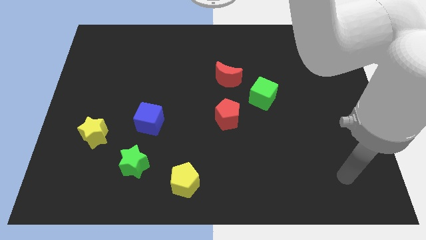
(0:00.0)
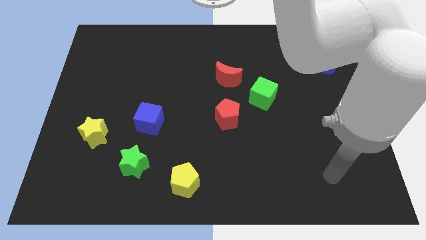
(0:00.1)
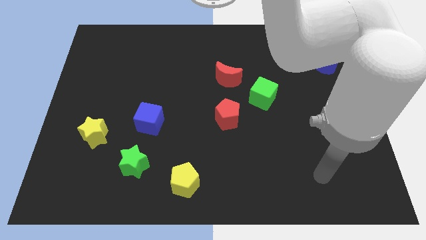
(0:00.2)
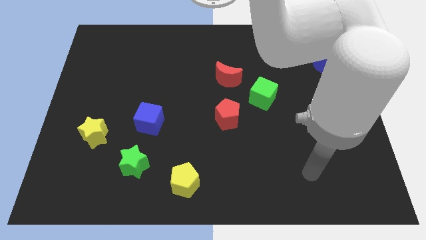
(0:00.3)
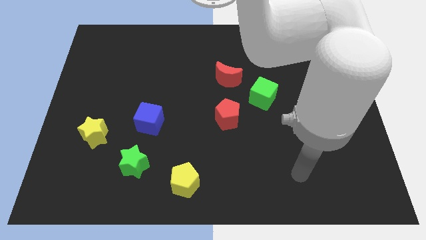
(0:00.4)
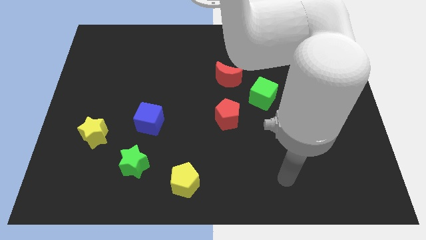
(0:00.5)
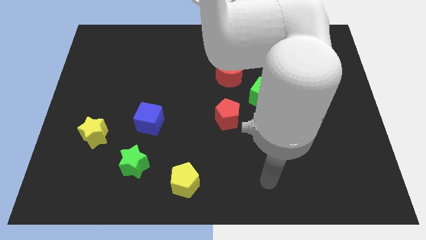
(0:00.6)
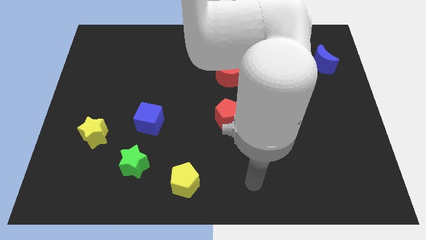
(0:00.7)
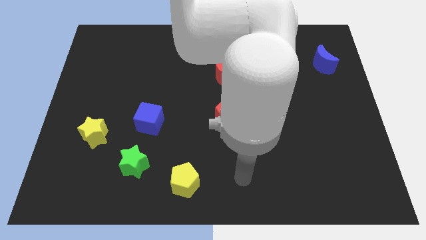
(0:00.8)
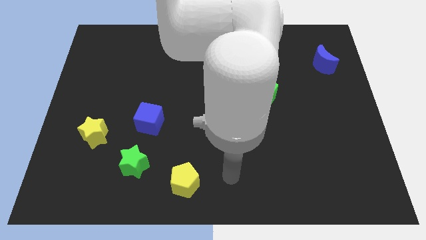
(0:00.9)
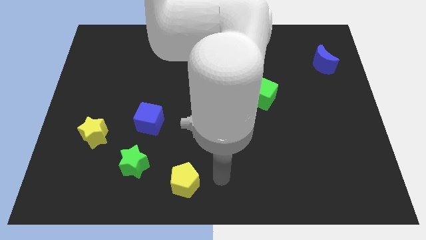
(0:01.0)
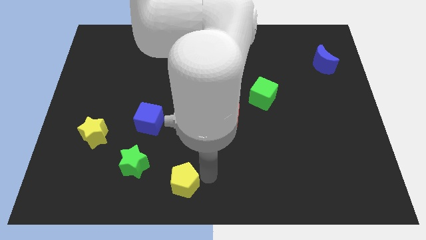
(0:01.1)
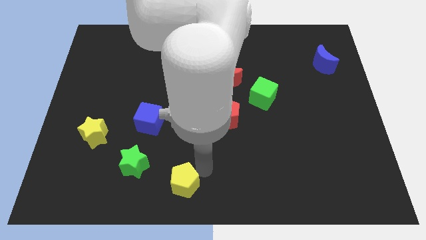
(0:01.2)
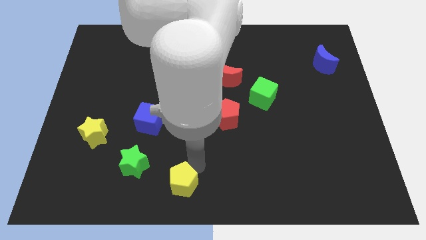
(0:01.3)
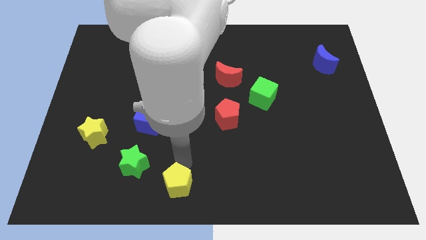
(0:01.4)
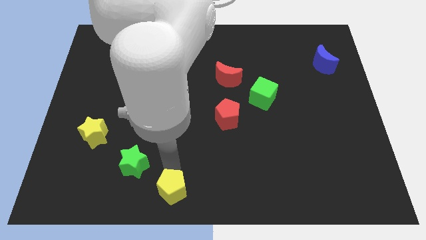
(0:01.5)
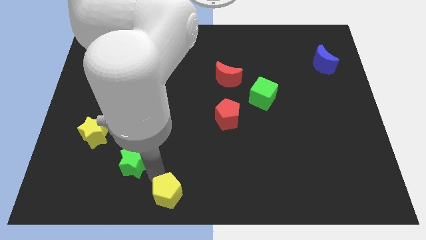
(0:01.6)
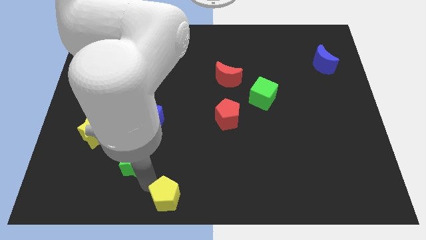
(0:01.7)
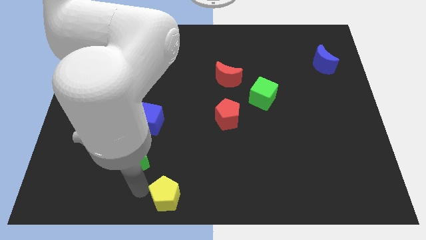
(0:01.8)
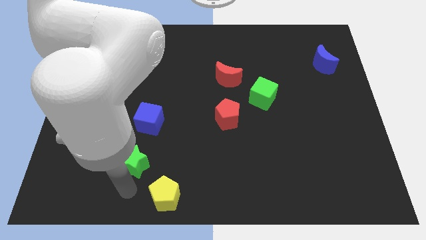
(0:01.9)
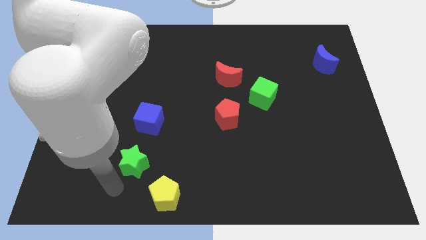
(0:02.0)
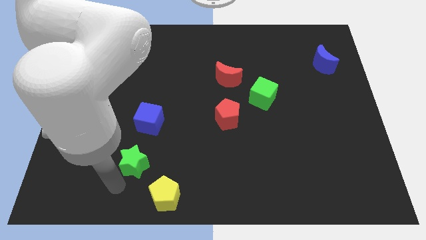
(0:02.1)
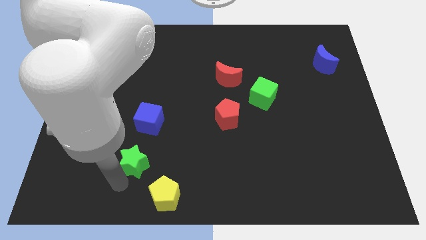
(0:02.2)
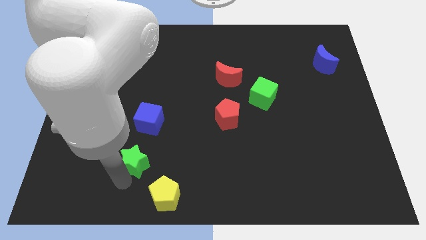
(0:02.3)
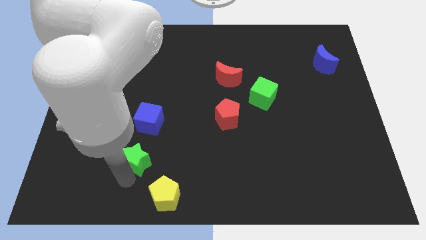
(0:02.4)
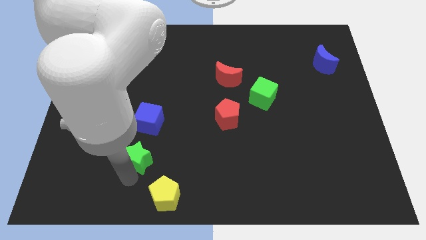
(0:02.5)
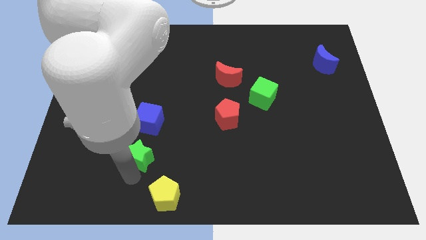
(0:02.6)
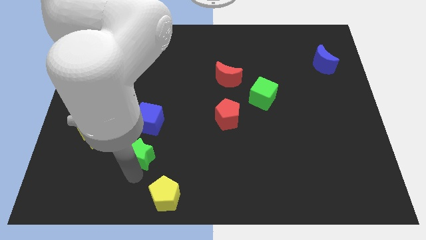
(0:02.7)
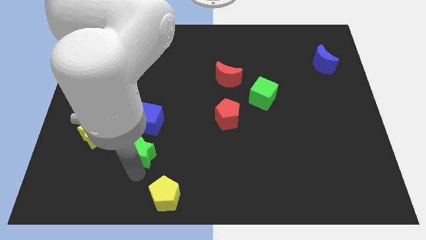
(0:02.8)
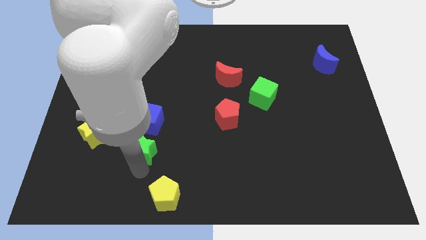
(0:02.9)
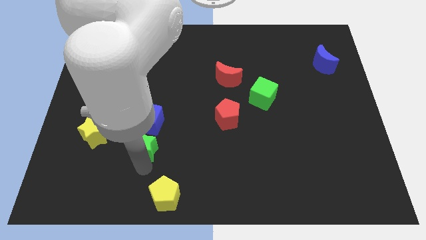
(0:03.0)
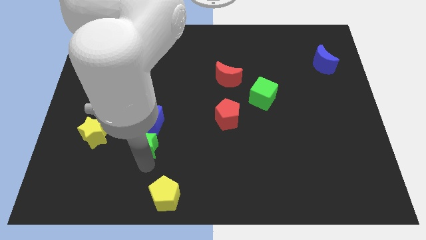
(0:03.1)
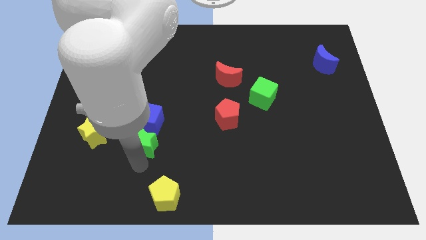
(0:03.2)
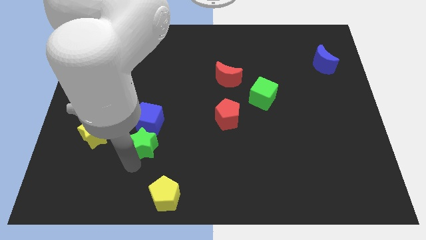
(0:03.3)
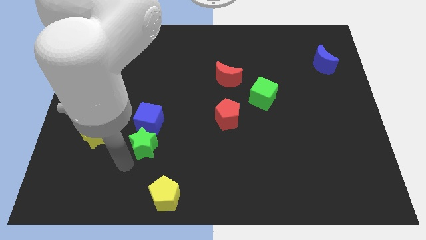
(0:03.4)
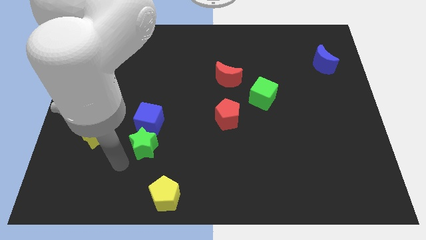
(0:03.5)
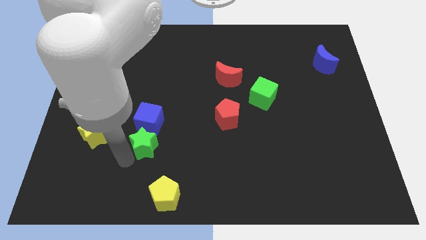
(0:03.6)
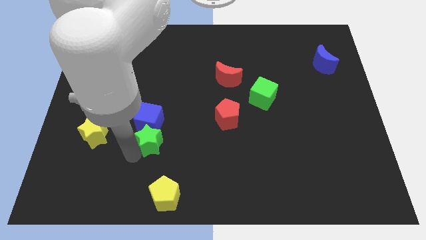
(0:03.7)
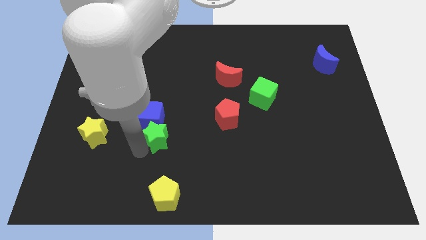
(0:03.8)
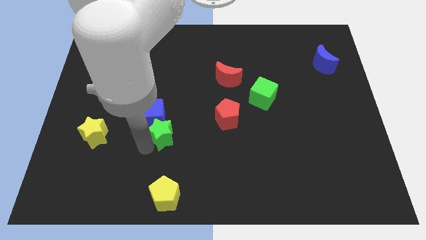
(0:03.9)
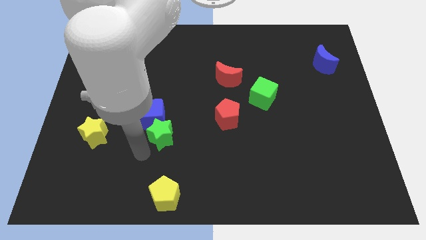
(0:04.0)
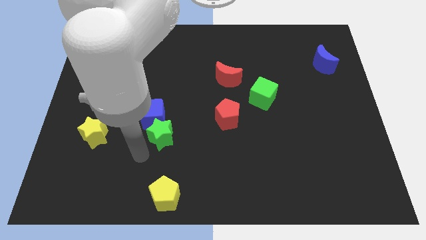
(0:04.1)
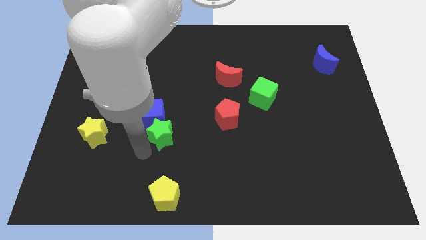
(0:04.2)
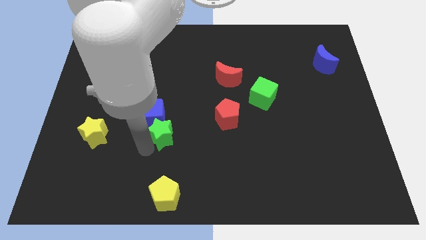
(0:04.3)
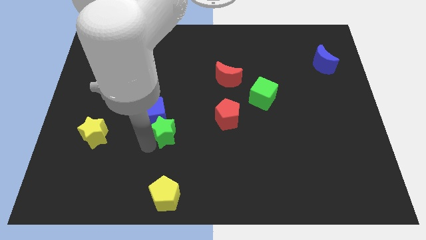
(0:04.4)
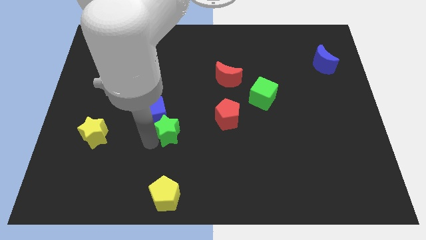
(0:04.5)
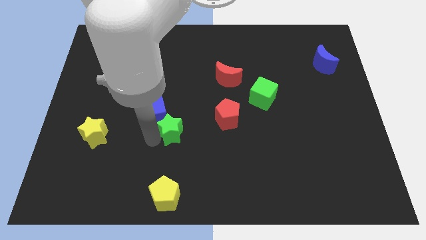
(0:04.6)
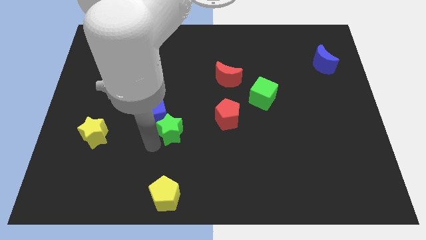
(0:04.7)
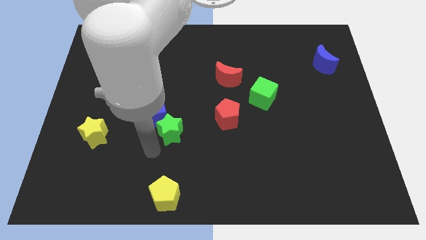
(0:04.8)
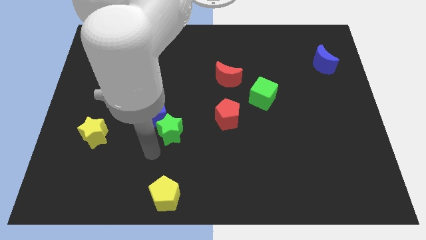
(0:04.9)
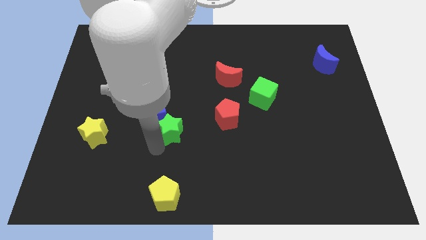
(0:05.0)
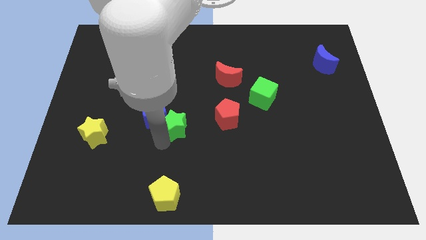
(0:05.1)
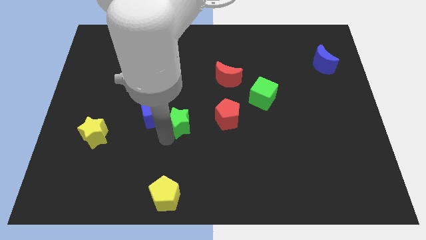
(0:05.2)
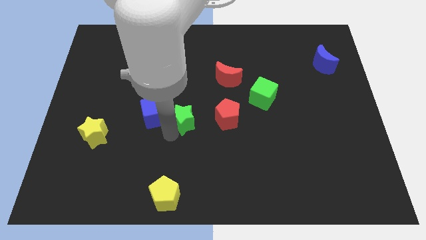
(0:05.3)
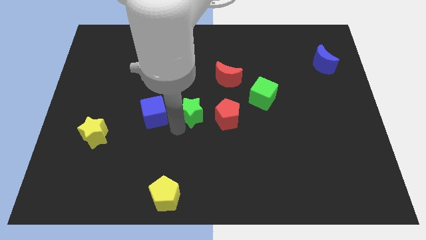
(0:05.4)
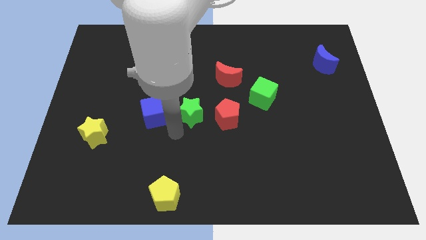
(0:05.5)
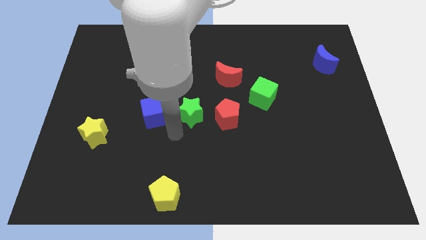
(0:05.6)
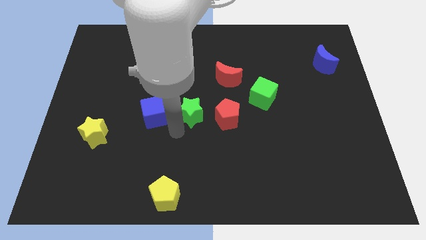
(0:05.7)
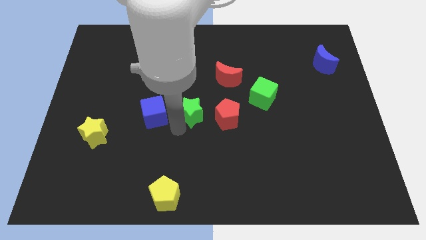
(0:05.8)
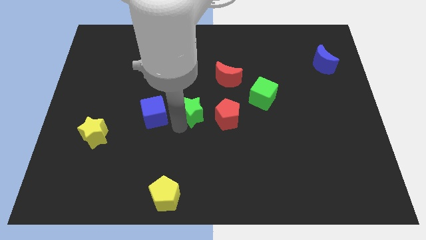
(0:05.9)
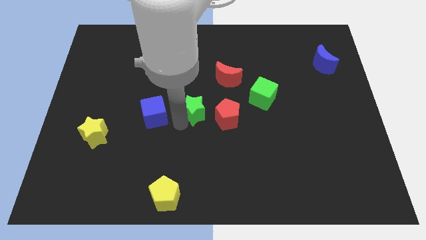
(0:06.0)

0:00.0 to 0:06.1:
move the green star to the top left of the red pentagon
